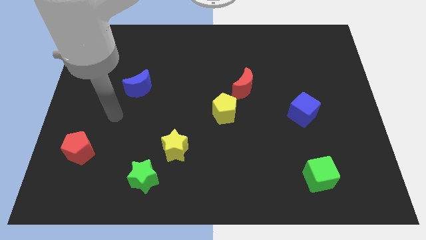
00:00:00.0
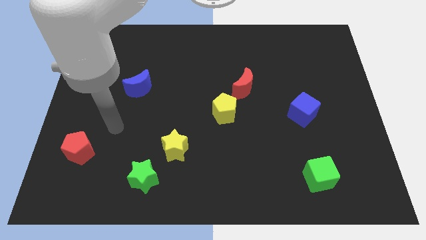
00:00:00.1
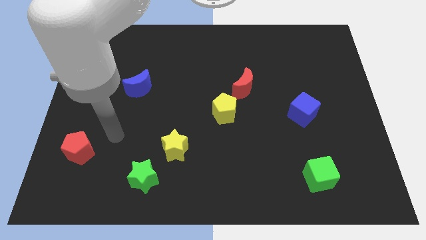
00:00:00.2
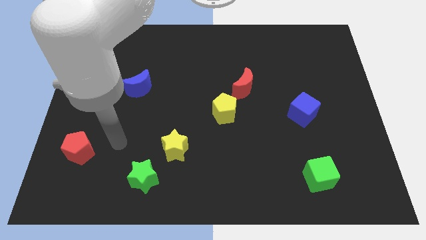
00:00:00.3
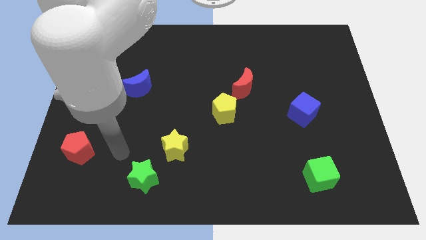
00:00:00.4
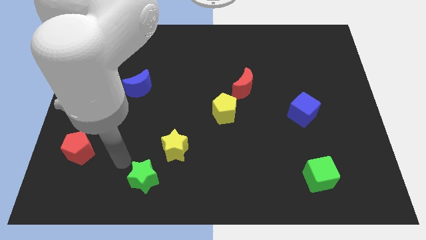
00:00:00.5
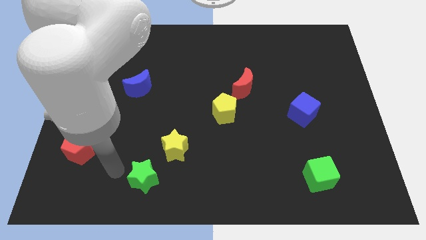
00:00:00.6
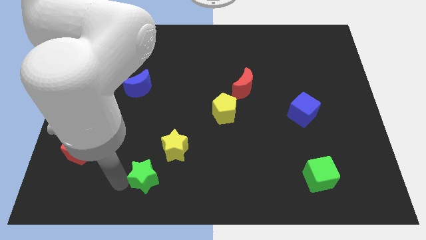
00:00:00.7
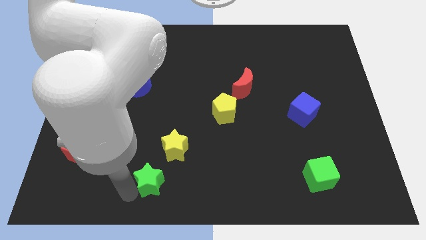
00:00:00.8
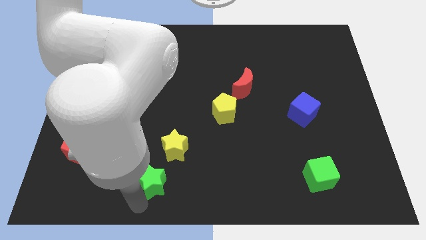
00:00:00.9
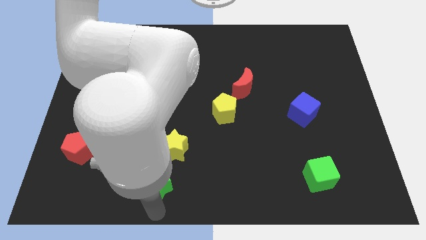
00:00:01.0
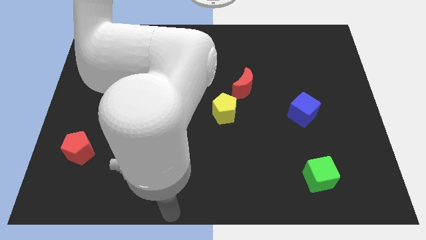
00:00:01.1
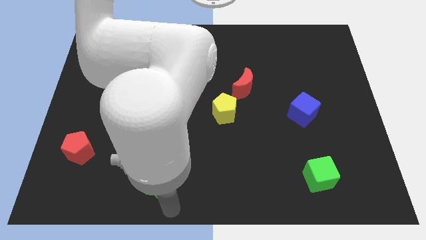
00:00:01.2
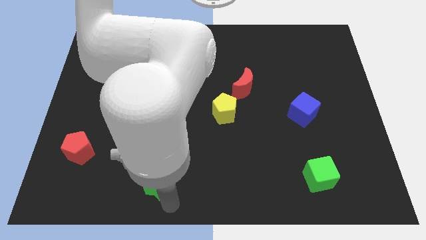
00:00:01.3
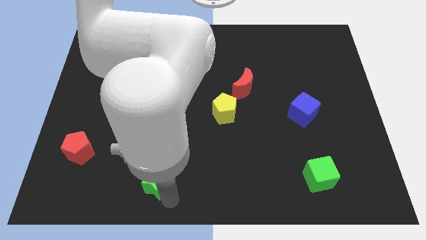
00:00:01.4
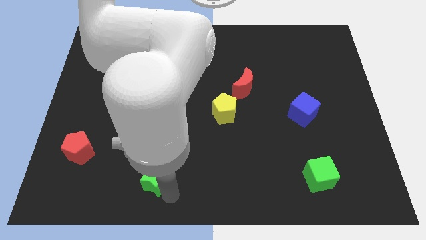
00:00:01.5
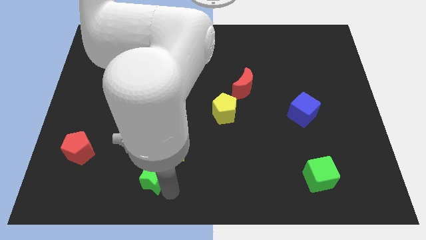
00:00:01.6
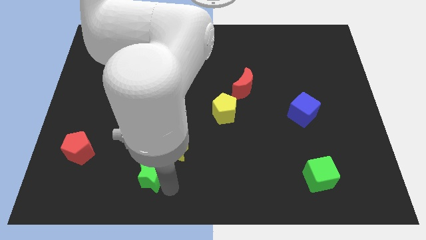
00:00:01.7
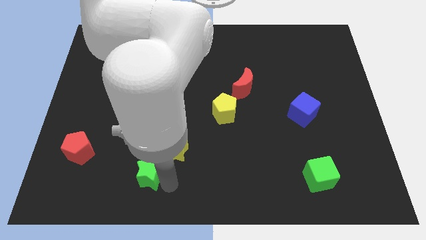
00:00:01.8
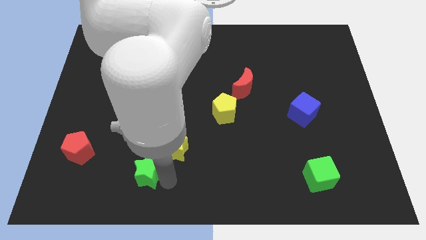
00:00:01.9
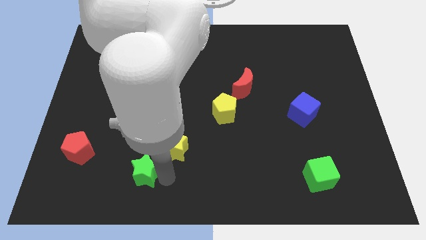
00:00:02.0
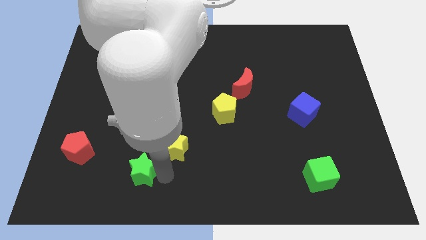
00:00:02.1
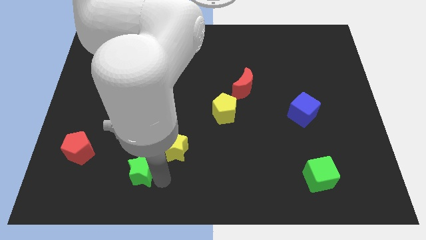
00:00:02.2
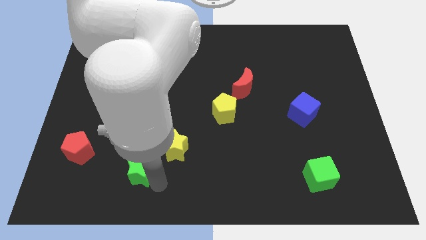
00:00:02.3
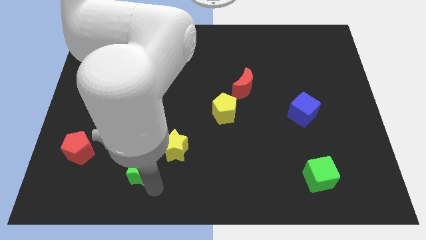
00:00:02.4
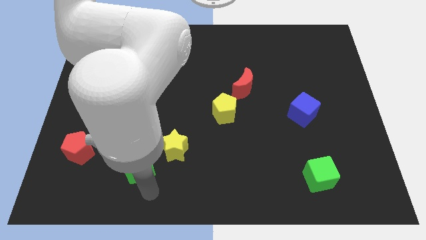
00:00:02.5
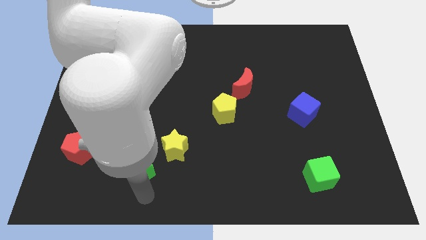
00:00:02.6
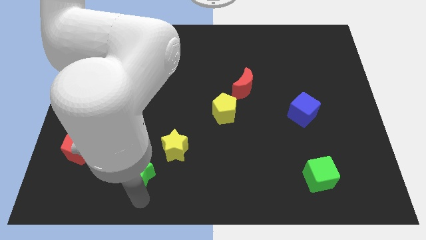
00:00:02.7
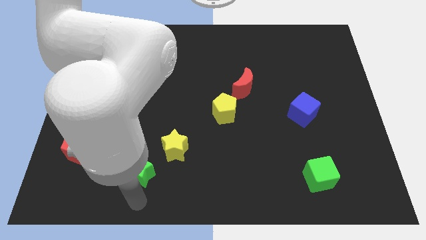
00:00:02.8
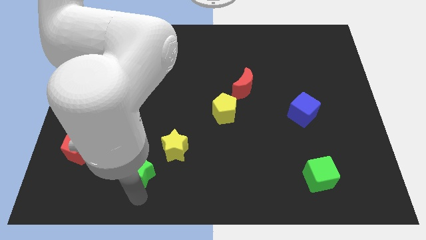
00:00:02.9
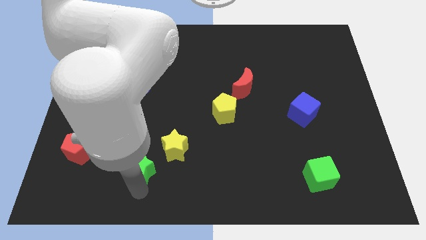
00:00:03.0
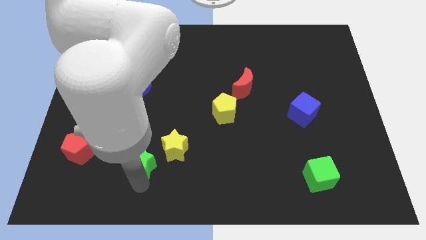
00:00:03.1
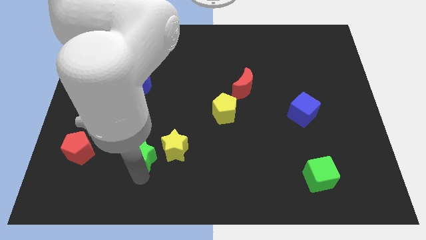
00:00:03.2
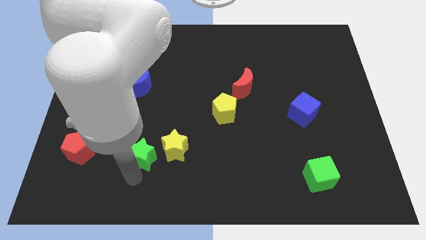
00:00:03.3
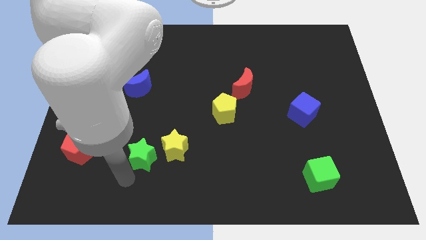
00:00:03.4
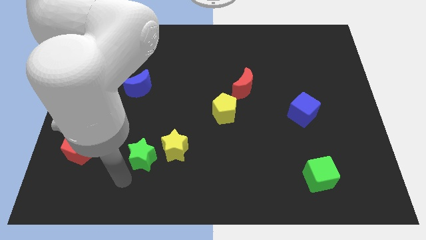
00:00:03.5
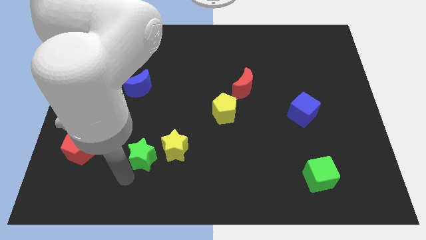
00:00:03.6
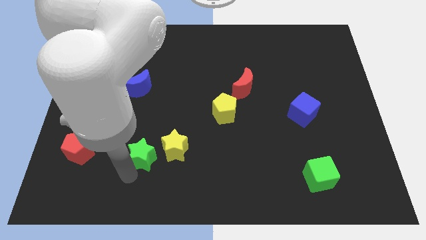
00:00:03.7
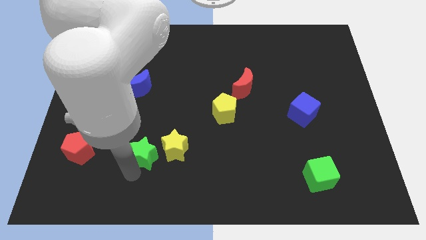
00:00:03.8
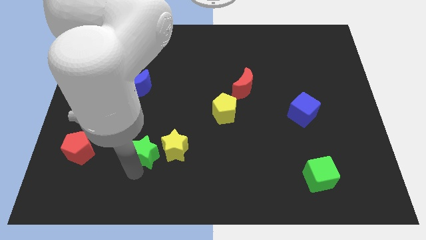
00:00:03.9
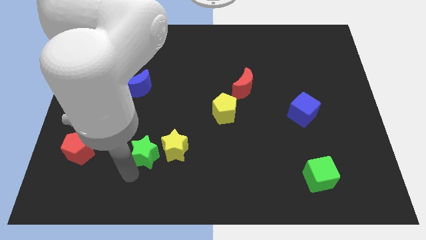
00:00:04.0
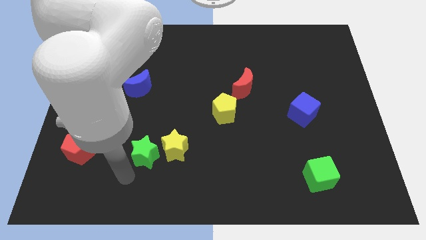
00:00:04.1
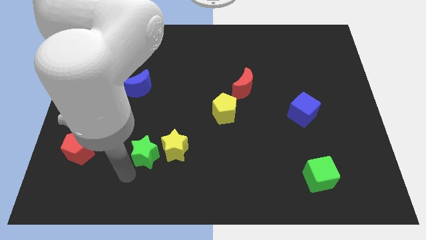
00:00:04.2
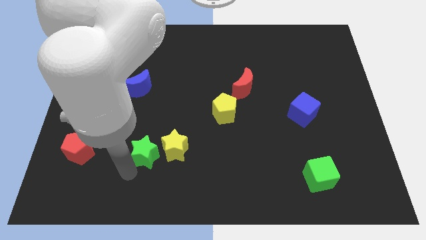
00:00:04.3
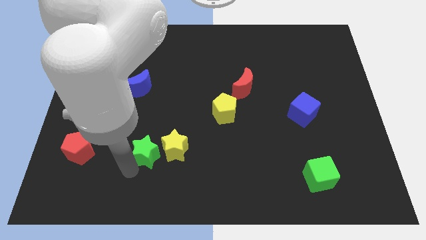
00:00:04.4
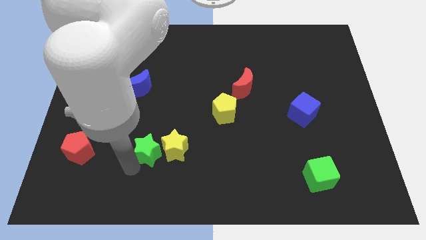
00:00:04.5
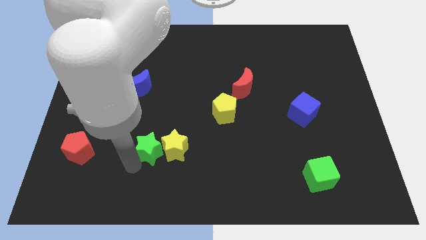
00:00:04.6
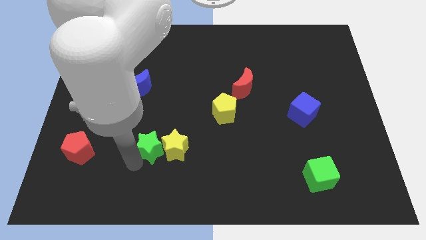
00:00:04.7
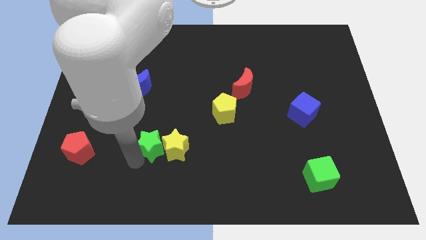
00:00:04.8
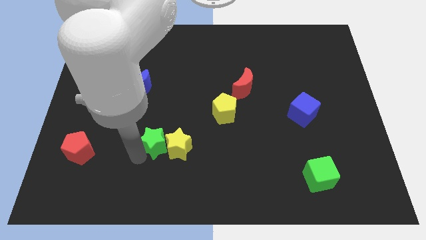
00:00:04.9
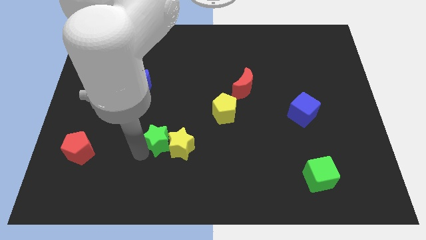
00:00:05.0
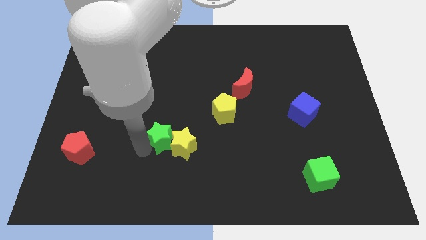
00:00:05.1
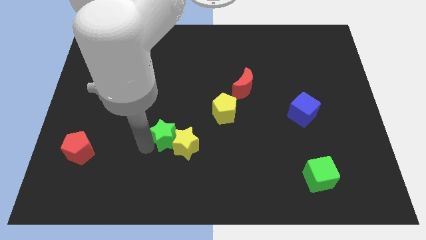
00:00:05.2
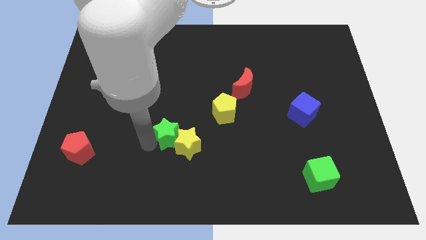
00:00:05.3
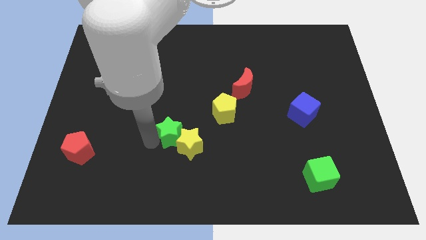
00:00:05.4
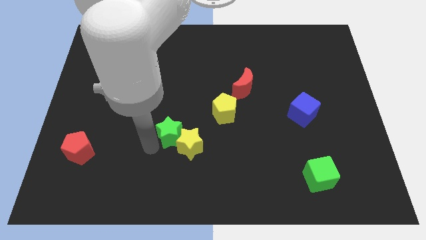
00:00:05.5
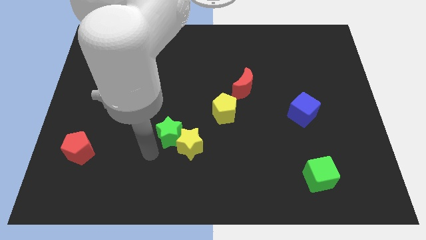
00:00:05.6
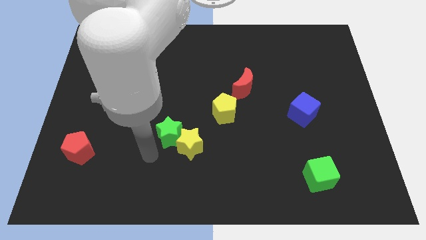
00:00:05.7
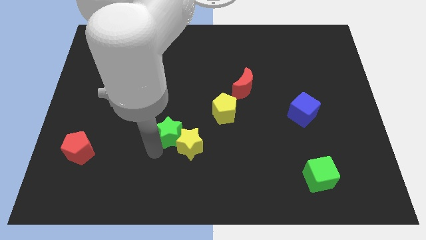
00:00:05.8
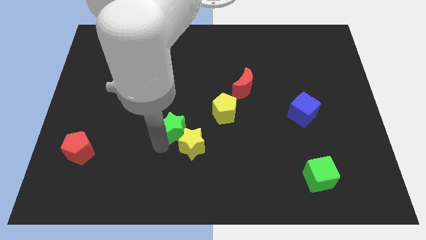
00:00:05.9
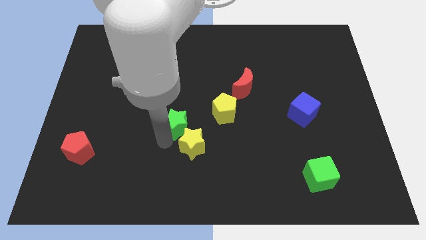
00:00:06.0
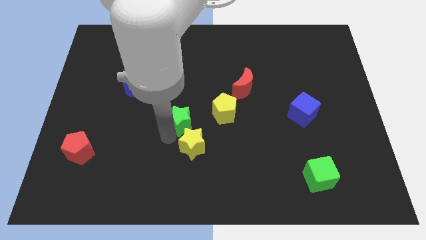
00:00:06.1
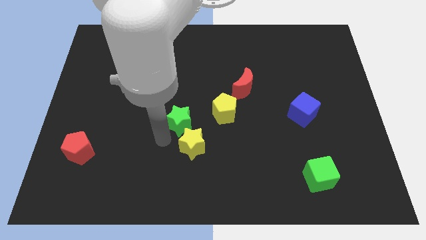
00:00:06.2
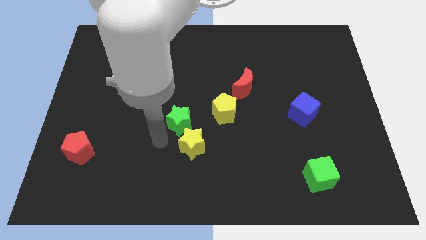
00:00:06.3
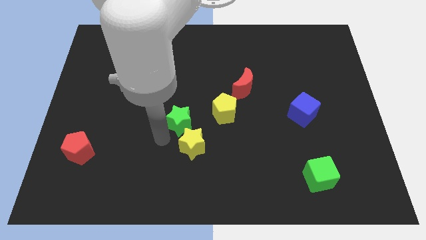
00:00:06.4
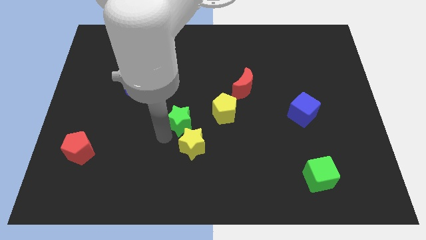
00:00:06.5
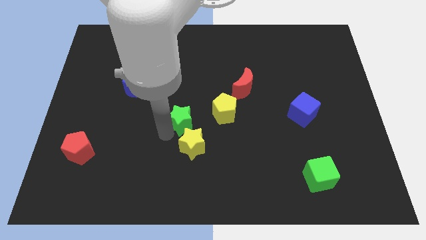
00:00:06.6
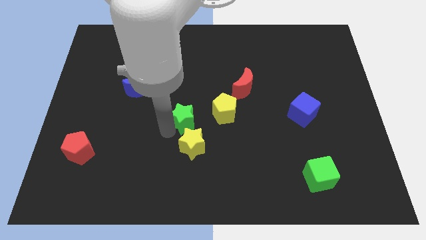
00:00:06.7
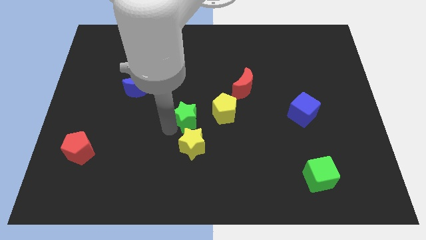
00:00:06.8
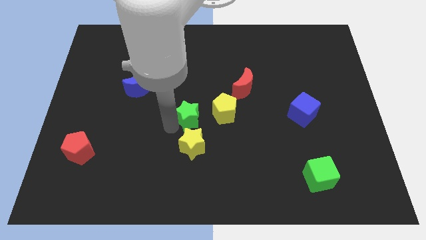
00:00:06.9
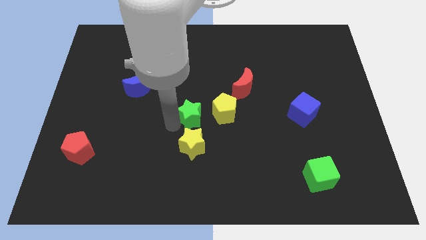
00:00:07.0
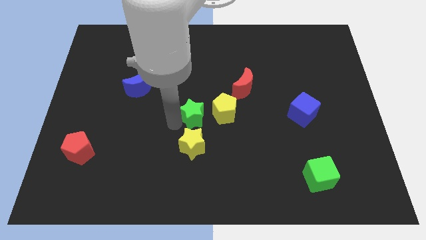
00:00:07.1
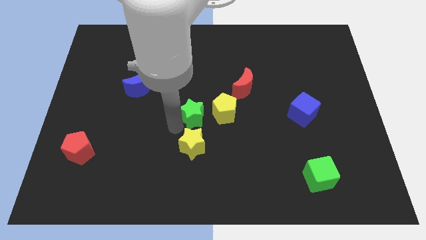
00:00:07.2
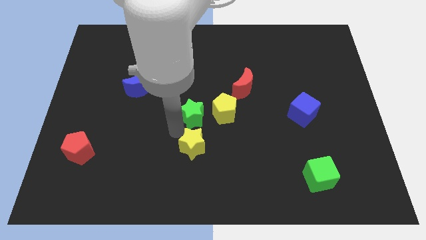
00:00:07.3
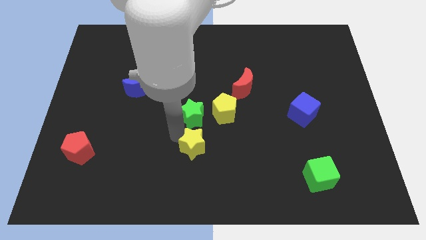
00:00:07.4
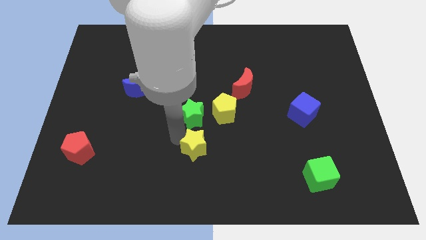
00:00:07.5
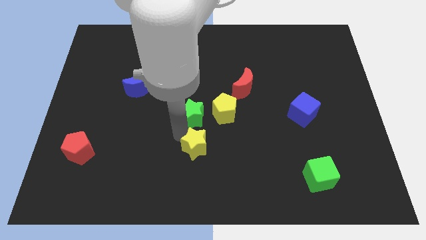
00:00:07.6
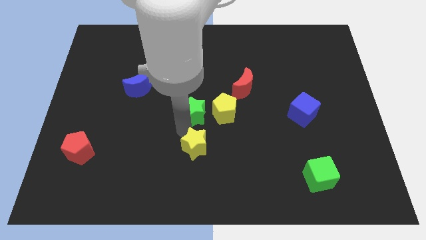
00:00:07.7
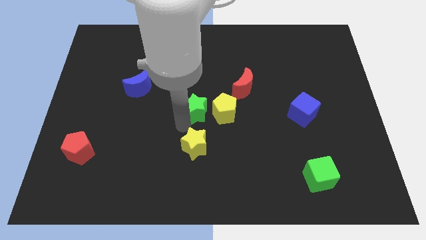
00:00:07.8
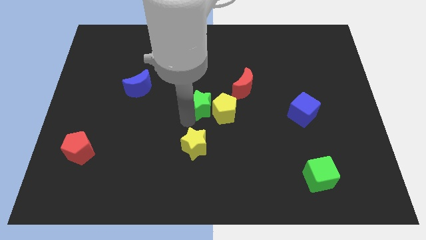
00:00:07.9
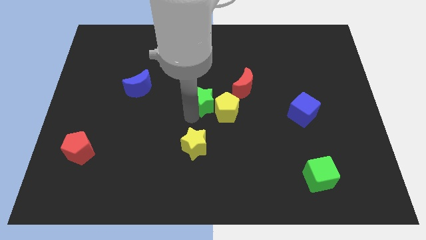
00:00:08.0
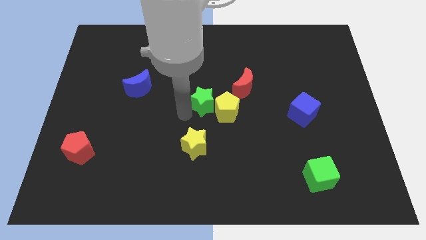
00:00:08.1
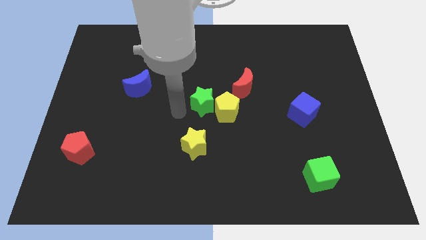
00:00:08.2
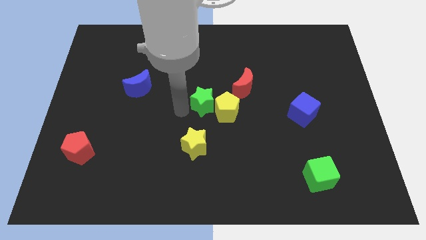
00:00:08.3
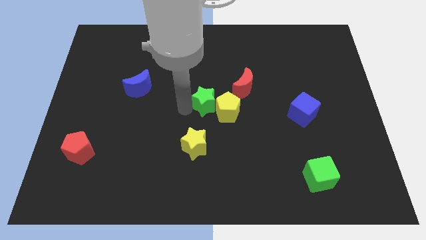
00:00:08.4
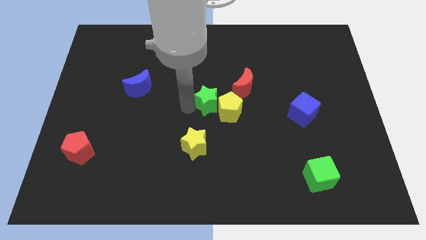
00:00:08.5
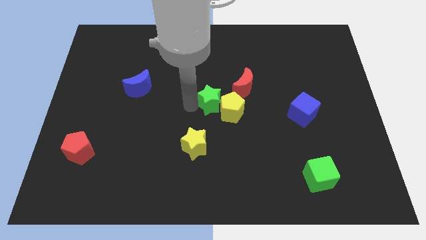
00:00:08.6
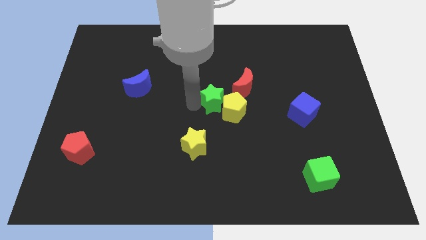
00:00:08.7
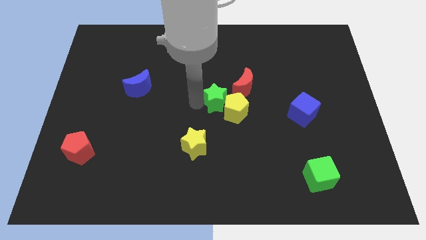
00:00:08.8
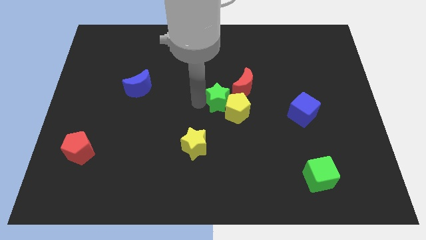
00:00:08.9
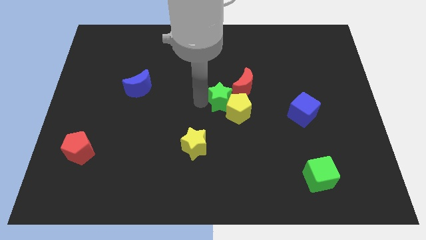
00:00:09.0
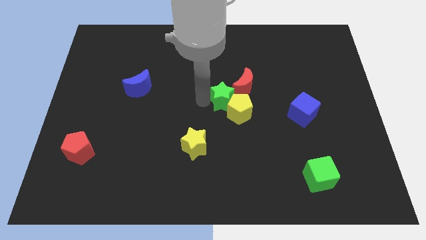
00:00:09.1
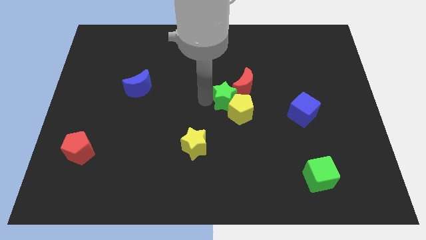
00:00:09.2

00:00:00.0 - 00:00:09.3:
push the green star to the red moon
